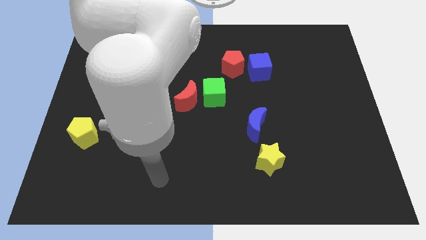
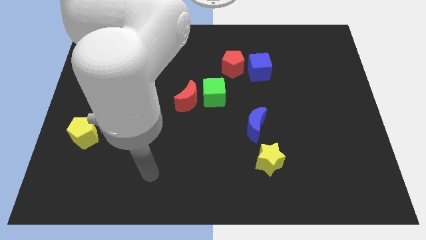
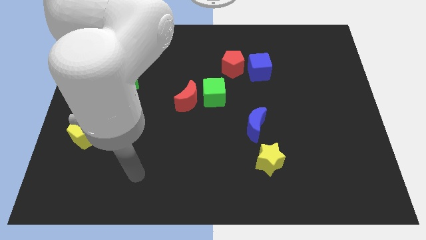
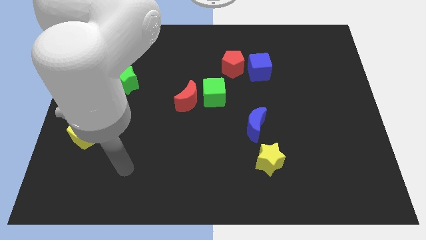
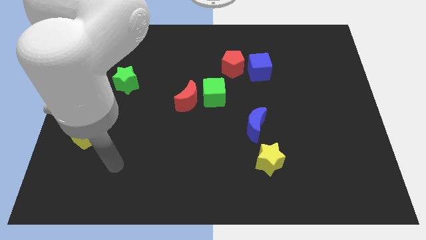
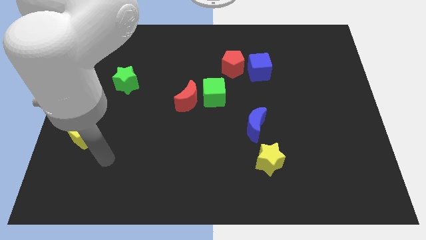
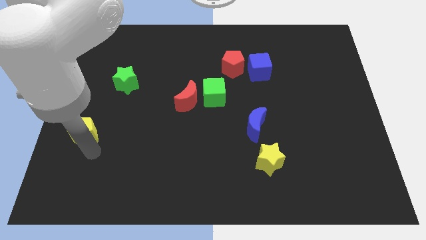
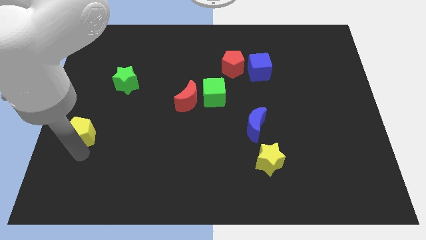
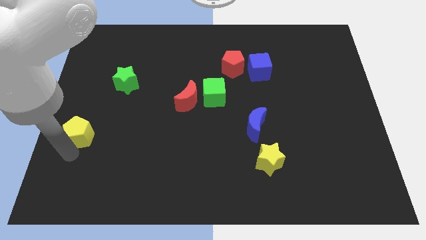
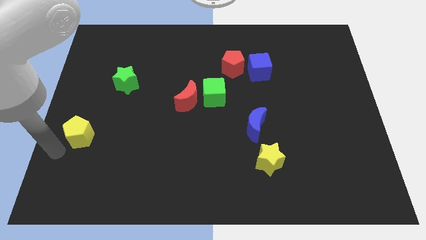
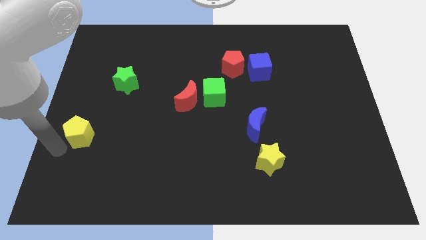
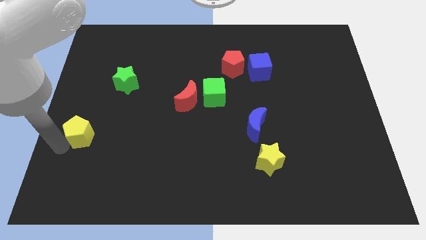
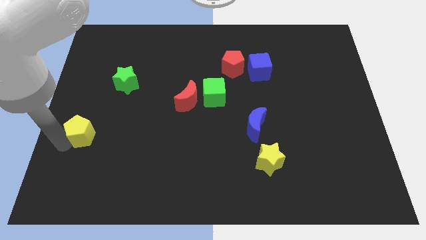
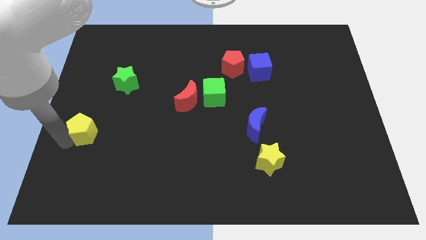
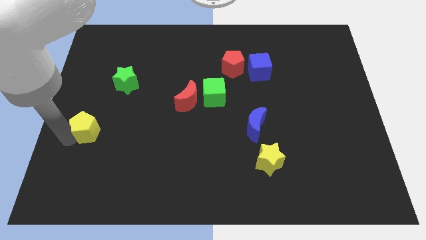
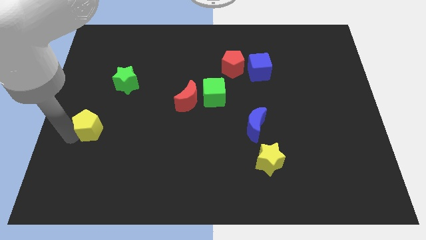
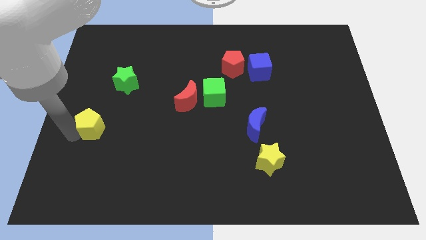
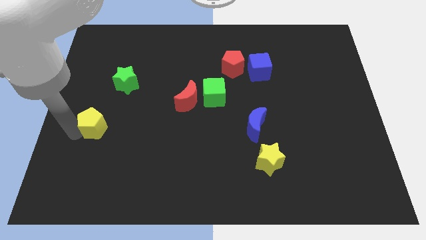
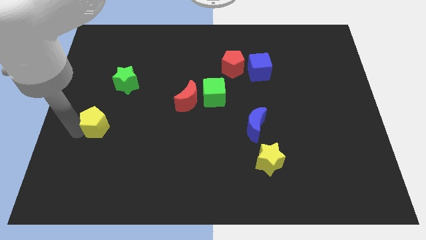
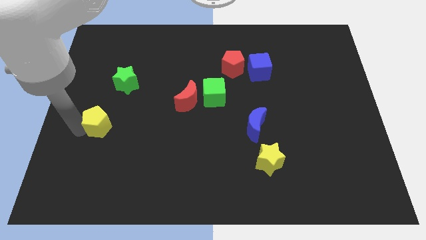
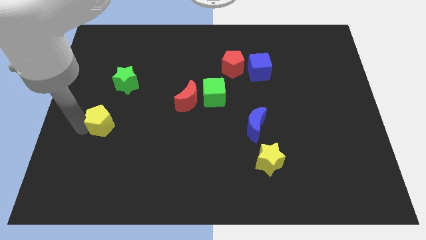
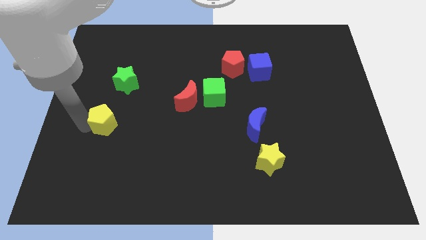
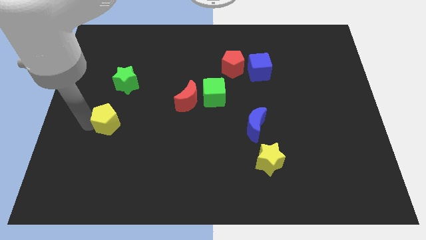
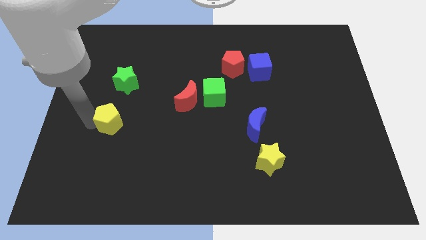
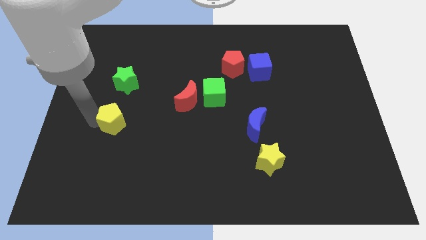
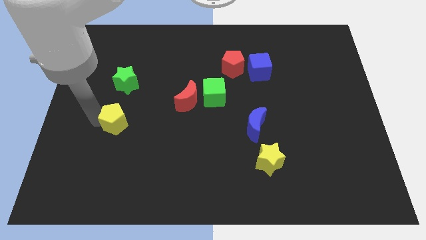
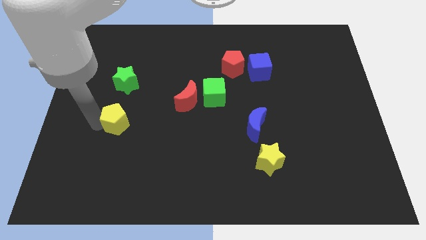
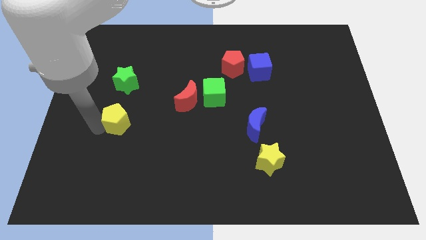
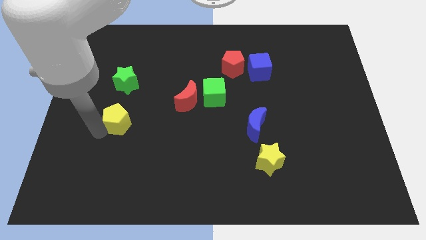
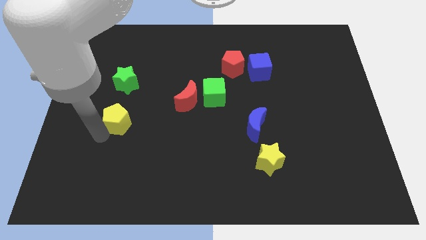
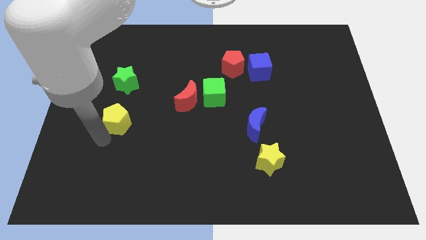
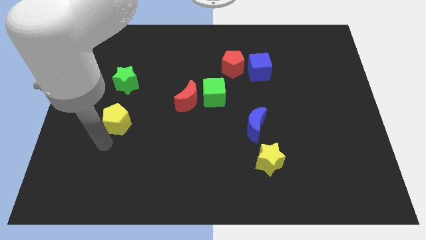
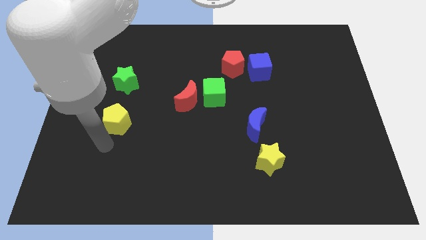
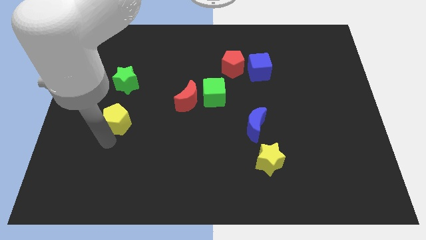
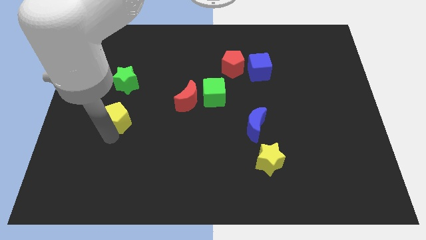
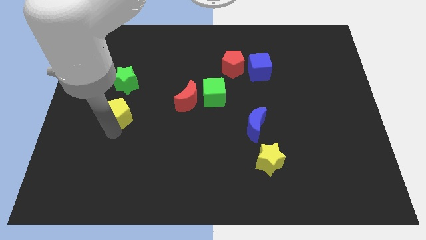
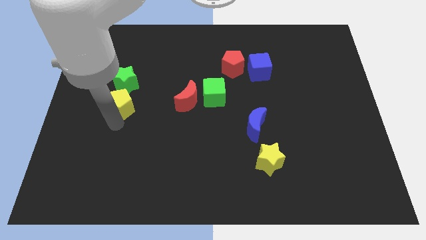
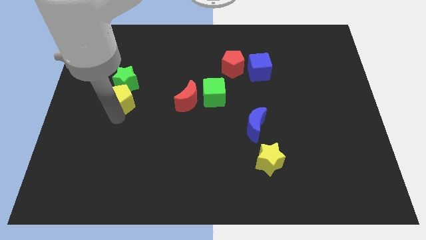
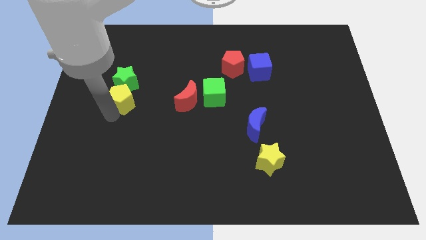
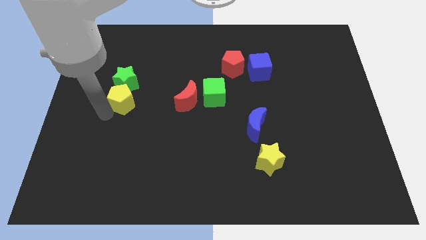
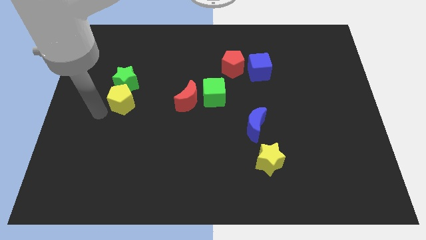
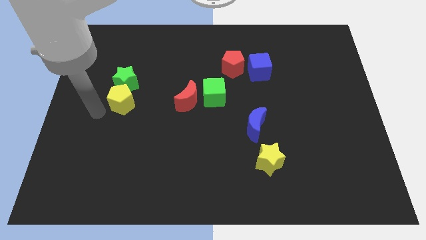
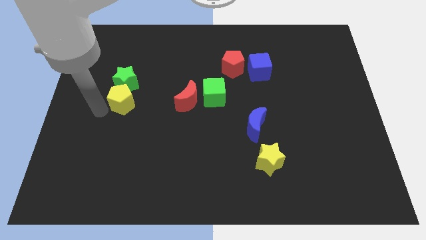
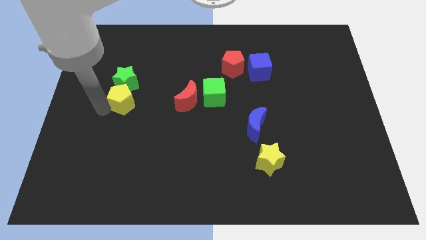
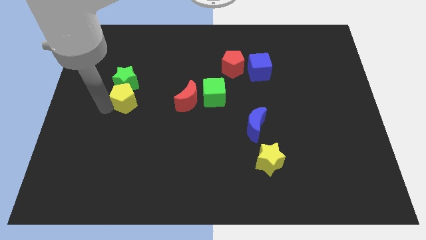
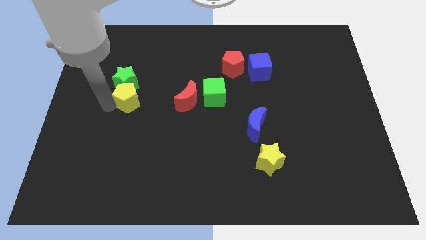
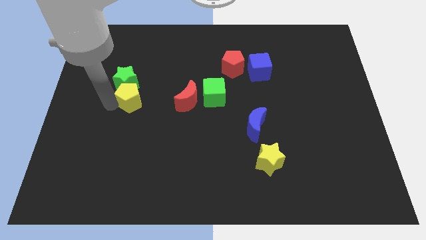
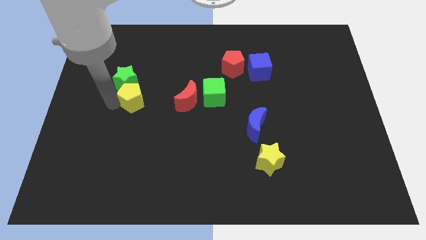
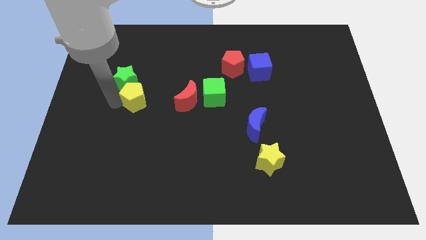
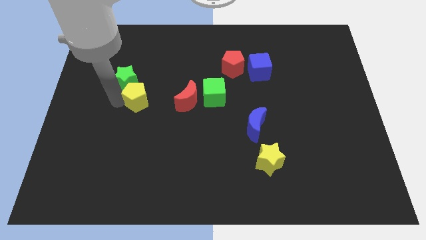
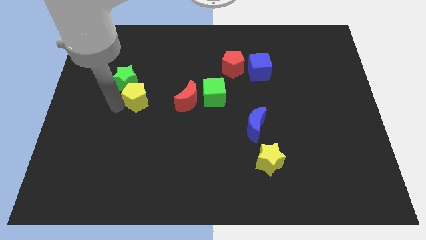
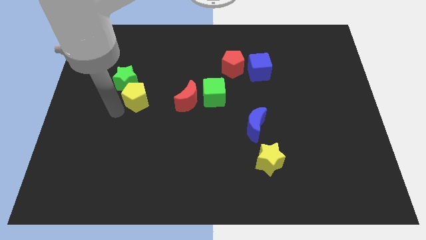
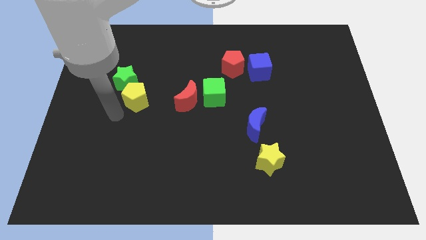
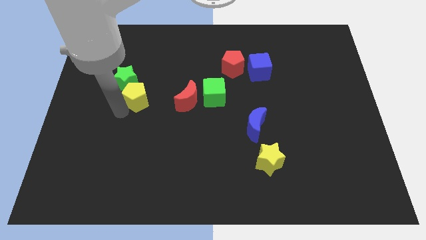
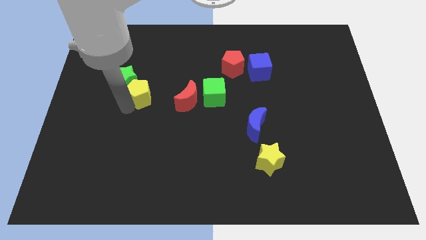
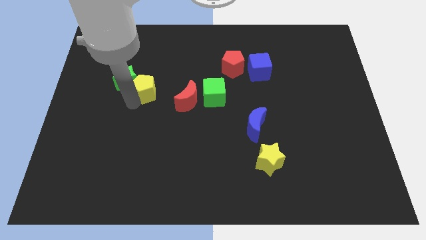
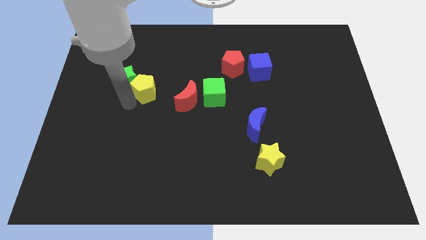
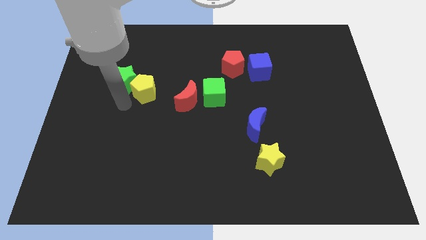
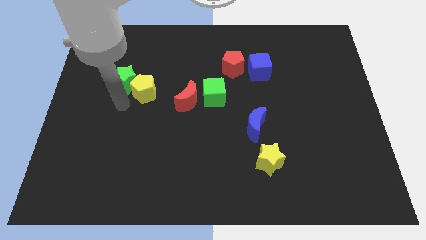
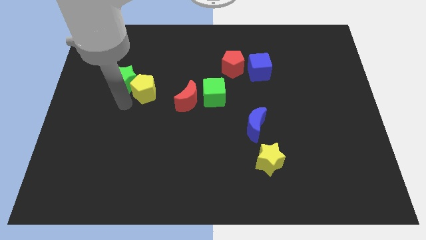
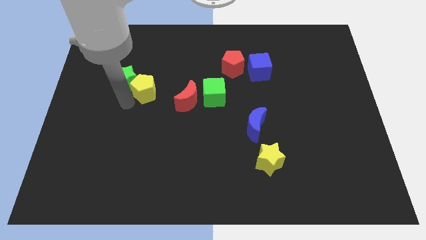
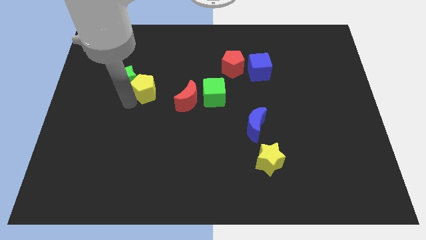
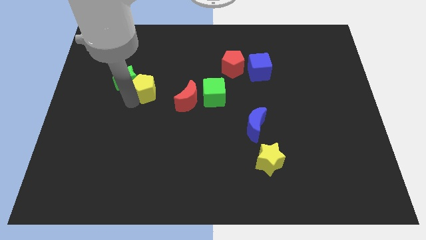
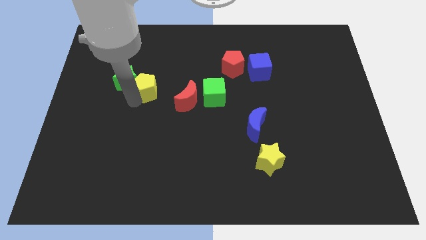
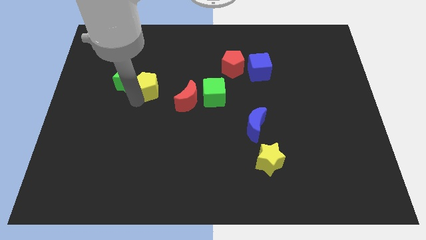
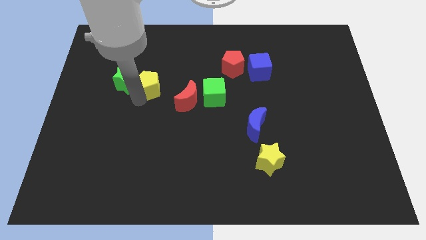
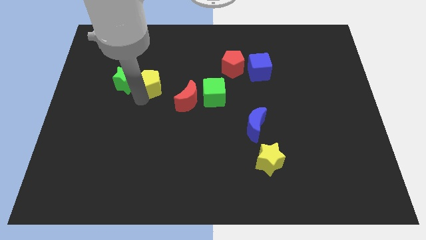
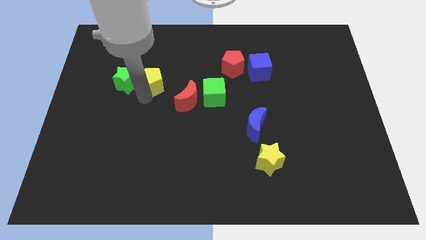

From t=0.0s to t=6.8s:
slide the yellow pentagon upwards and right diagonally

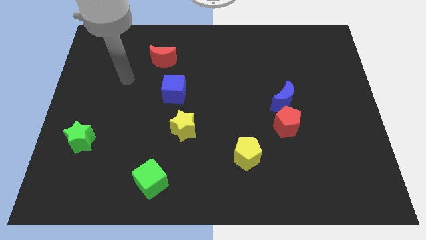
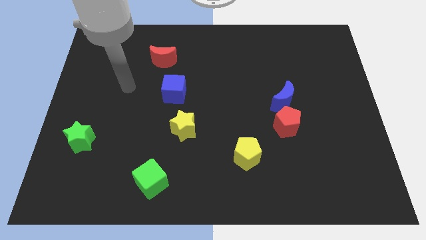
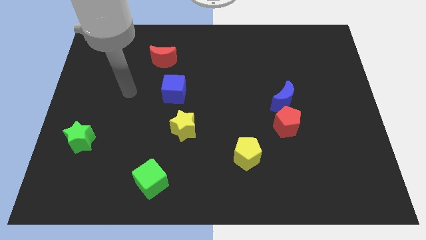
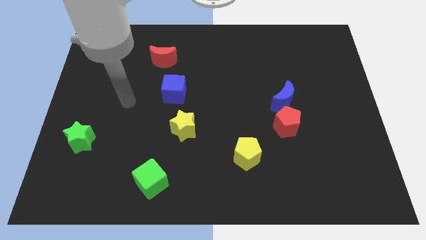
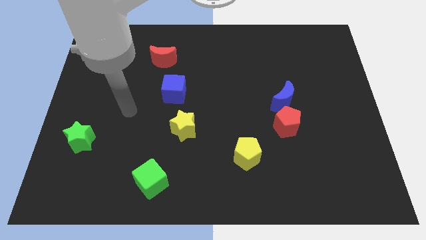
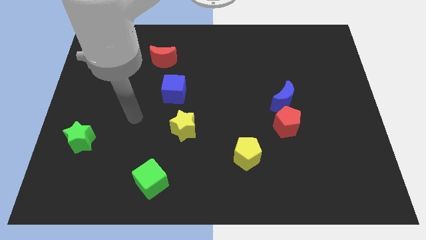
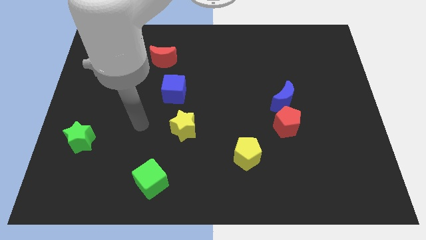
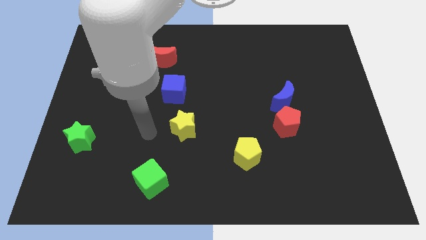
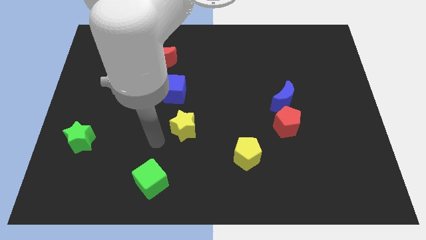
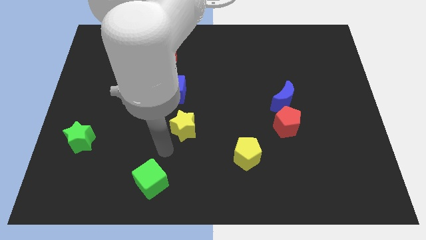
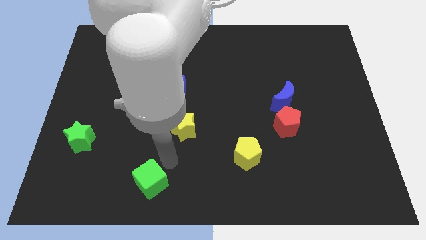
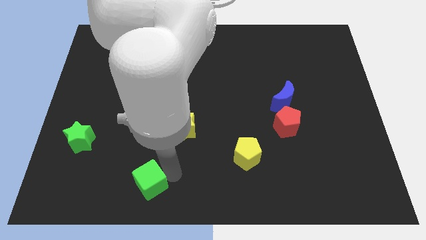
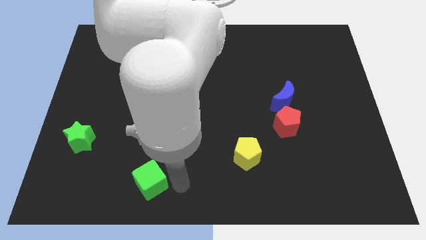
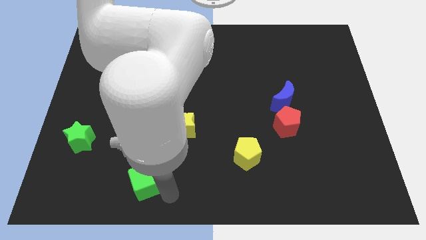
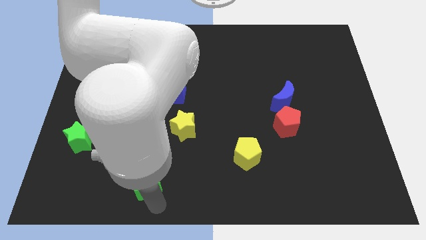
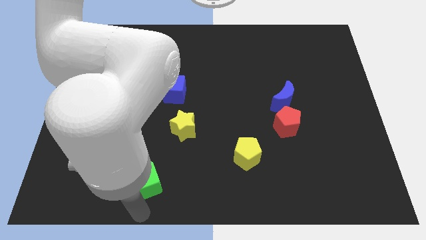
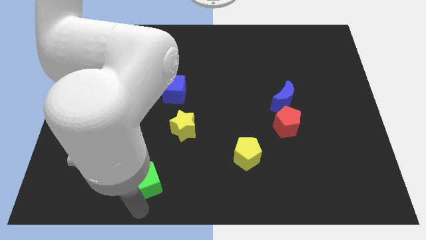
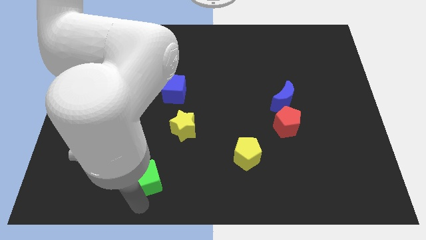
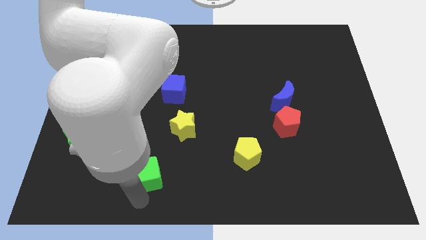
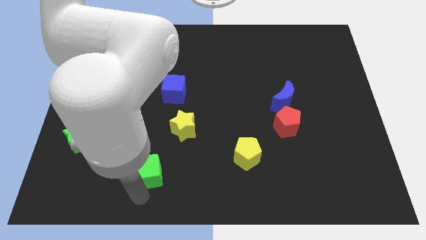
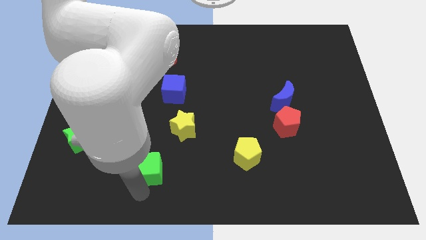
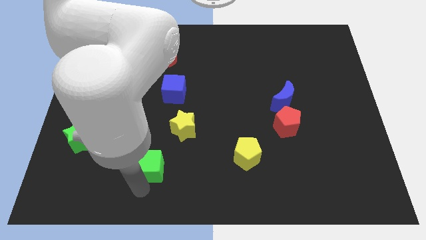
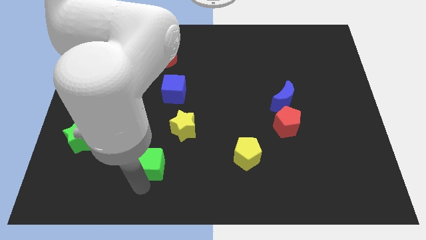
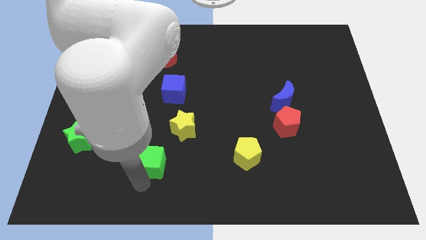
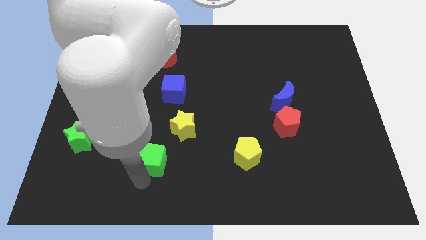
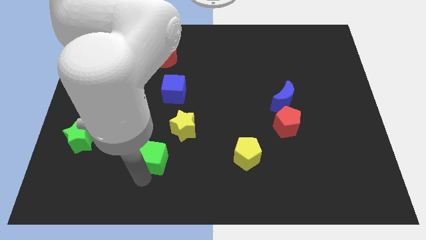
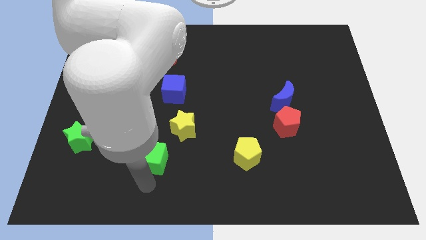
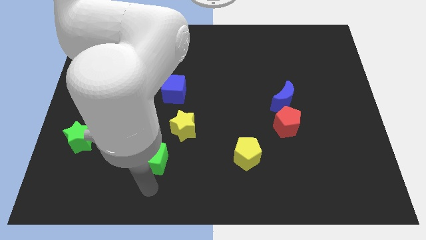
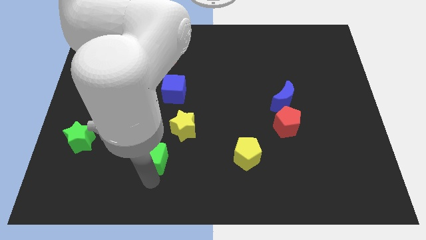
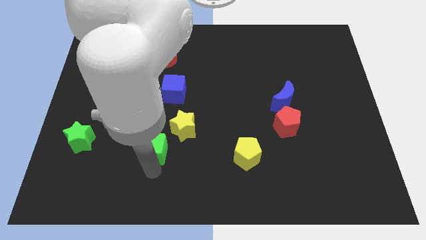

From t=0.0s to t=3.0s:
slightly push the green cube upwards
